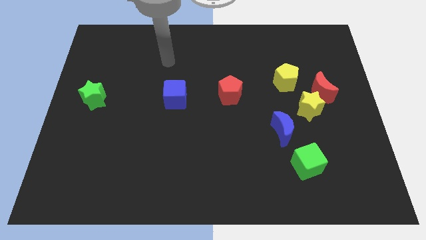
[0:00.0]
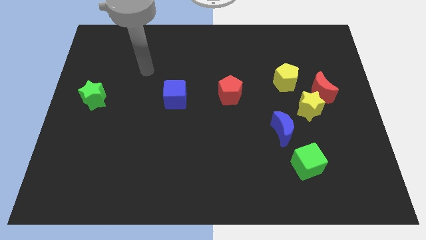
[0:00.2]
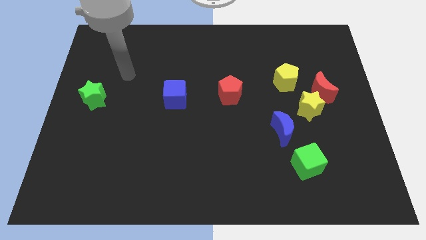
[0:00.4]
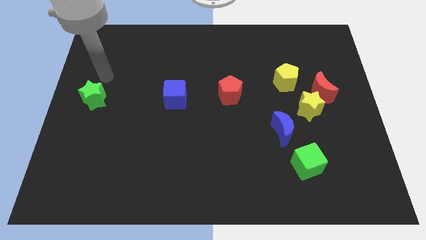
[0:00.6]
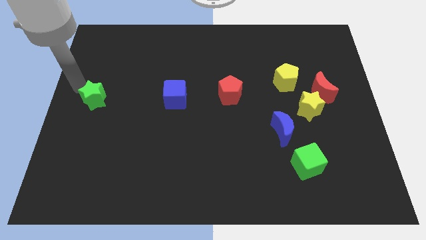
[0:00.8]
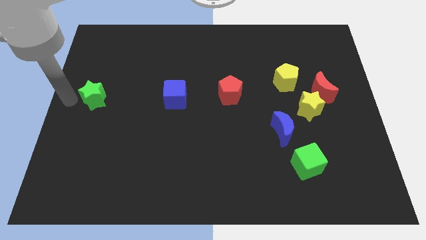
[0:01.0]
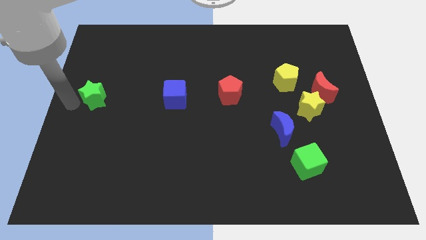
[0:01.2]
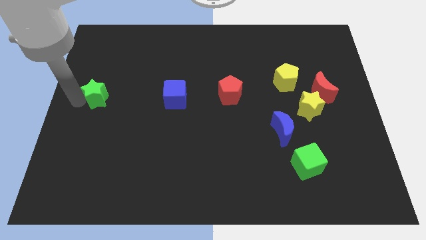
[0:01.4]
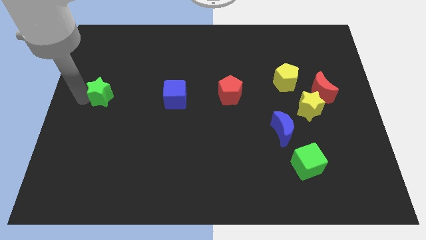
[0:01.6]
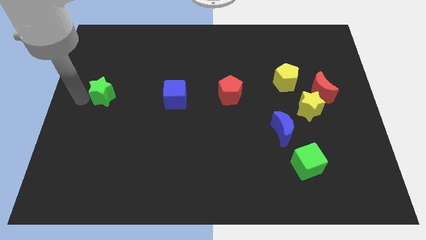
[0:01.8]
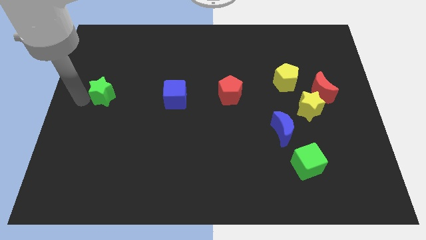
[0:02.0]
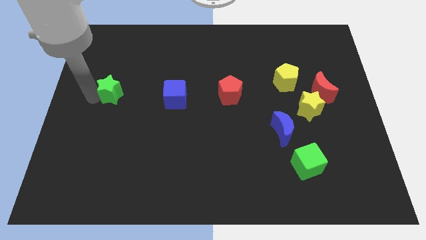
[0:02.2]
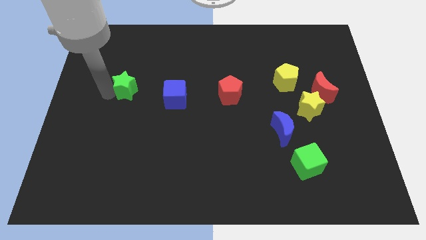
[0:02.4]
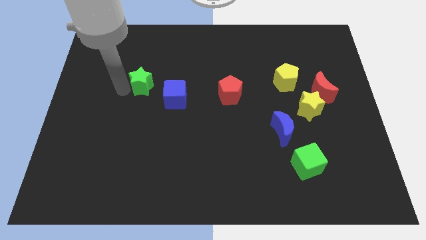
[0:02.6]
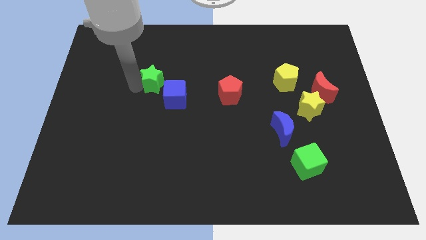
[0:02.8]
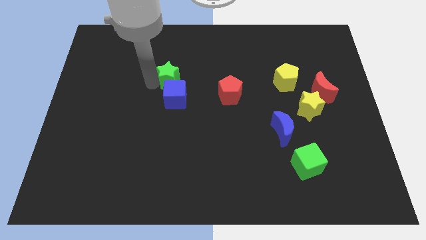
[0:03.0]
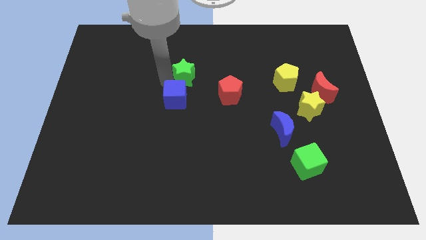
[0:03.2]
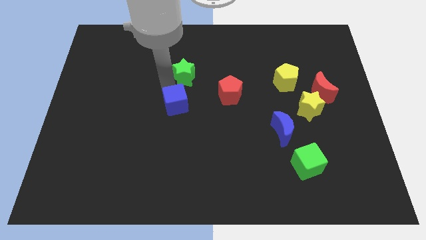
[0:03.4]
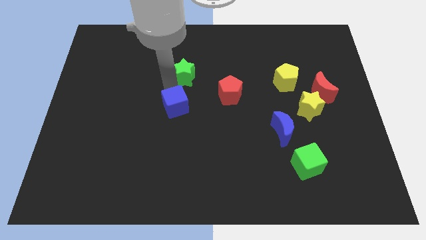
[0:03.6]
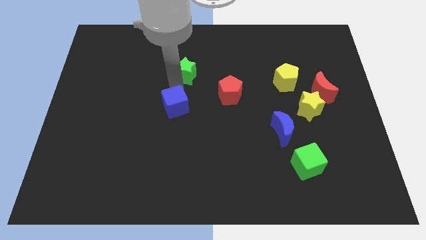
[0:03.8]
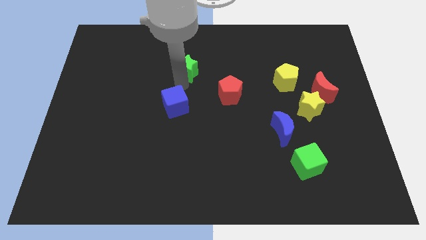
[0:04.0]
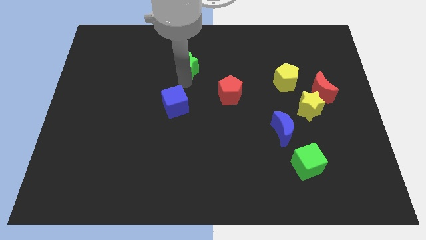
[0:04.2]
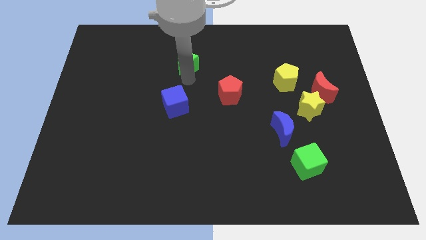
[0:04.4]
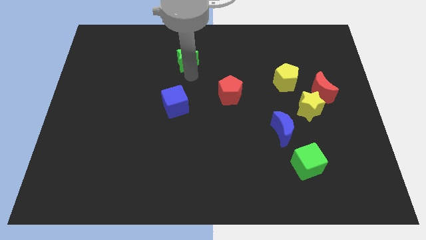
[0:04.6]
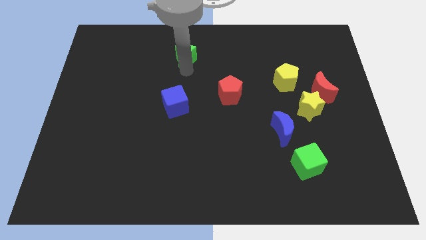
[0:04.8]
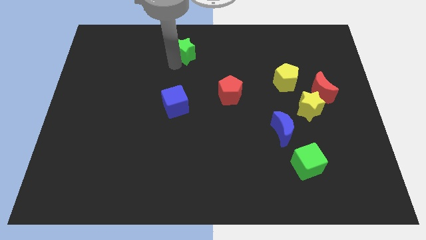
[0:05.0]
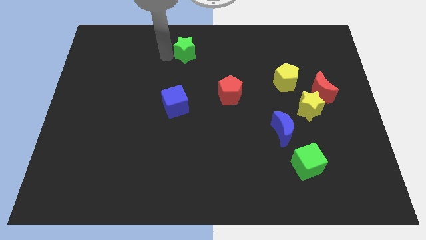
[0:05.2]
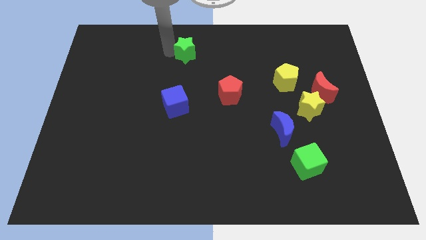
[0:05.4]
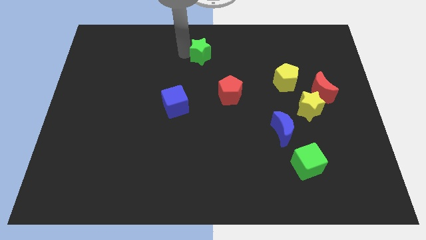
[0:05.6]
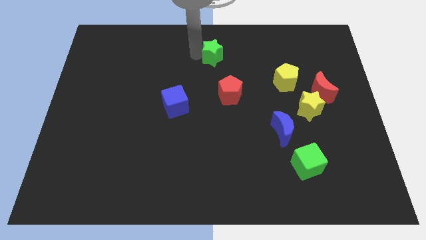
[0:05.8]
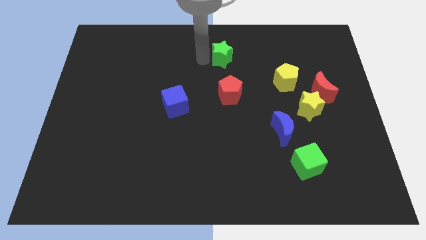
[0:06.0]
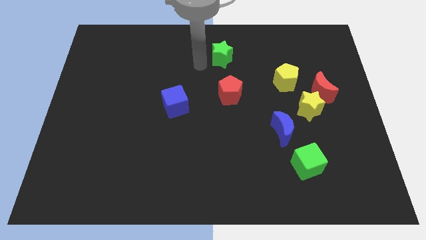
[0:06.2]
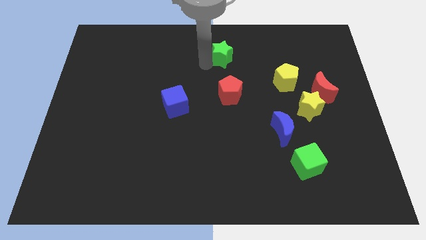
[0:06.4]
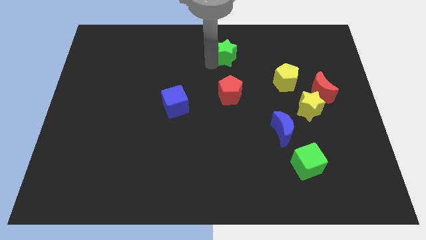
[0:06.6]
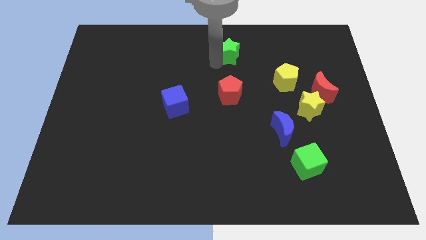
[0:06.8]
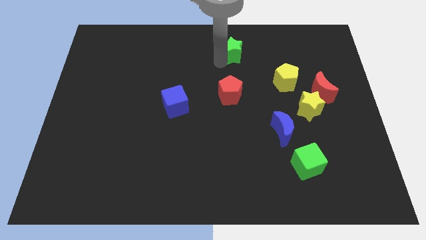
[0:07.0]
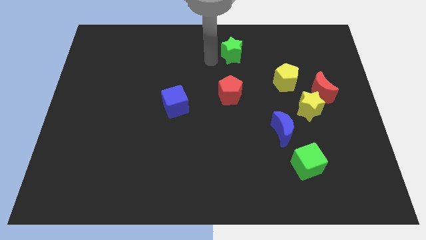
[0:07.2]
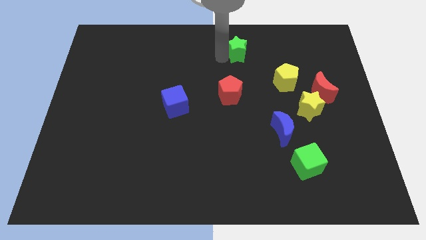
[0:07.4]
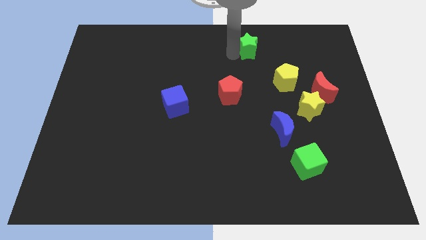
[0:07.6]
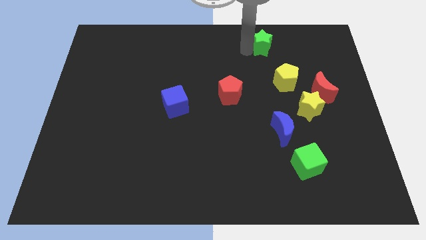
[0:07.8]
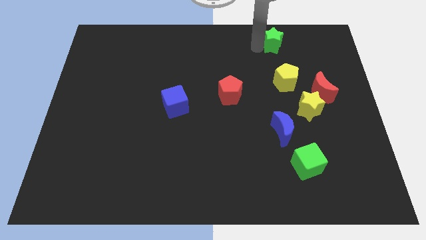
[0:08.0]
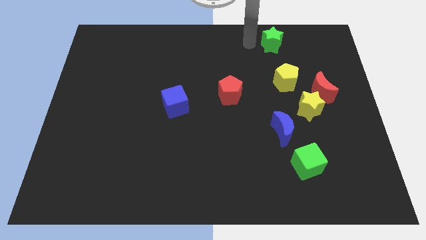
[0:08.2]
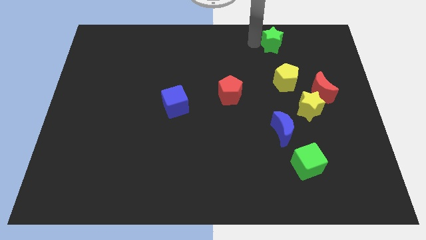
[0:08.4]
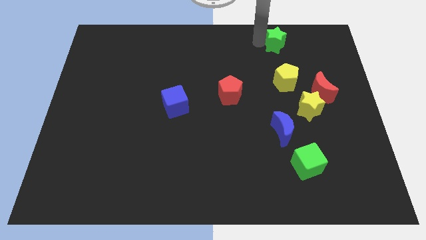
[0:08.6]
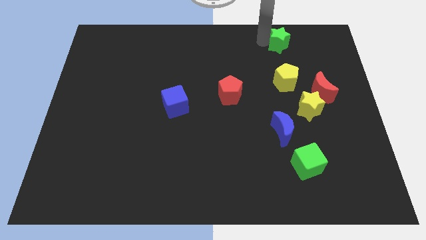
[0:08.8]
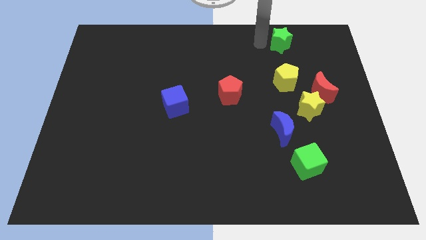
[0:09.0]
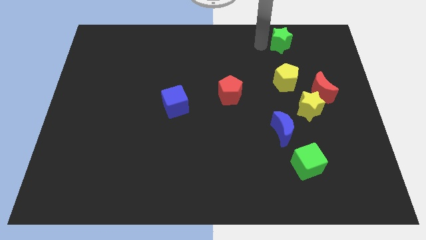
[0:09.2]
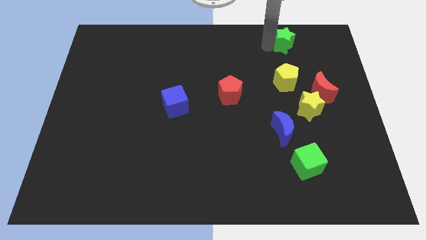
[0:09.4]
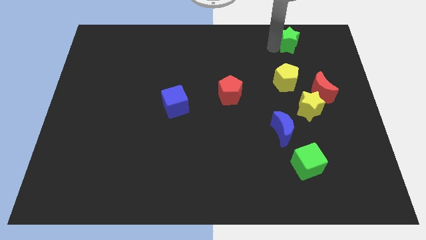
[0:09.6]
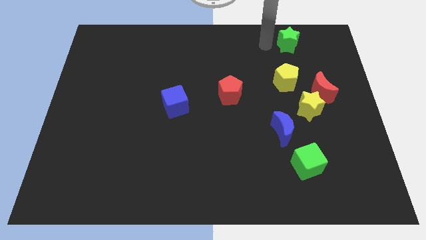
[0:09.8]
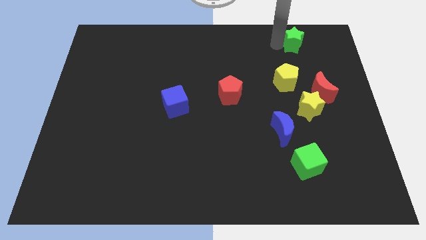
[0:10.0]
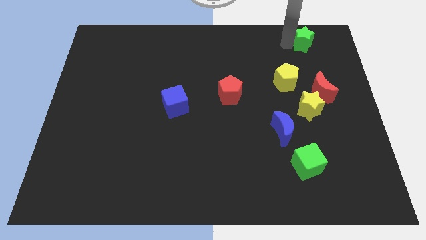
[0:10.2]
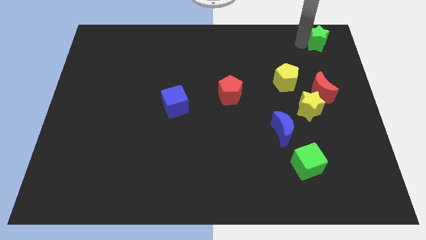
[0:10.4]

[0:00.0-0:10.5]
move the green star to the top right corner

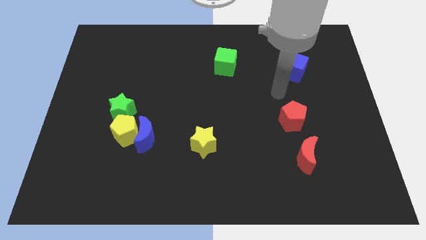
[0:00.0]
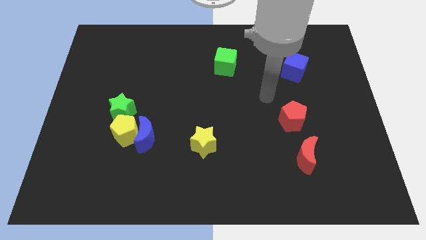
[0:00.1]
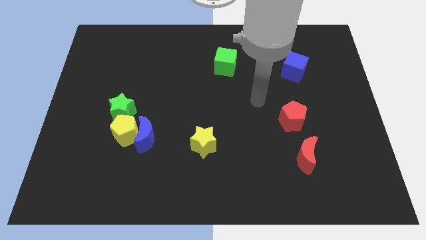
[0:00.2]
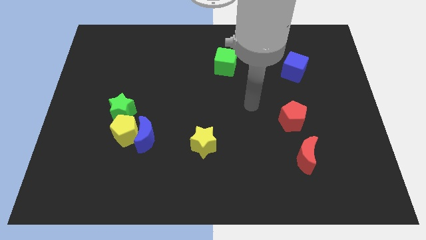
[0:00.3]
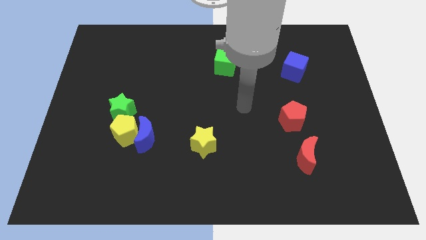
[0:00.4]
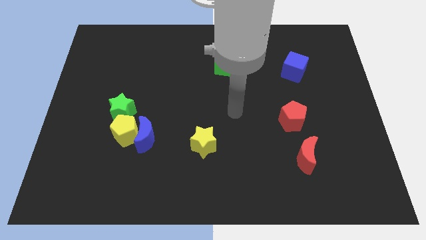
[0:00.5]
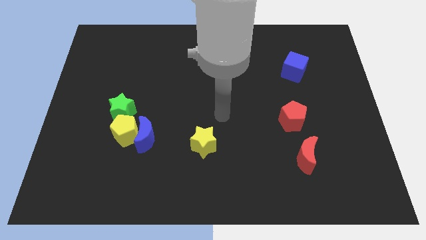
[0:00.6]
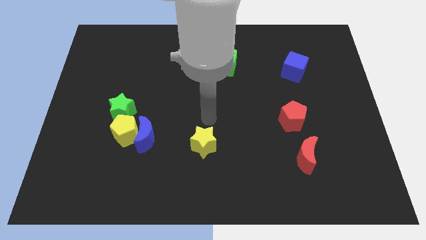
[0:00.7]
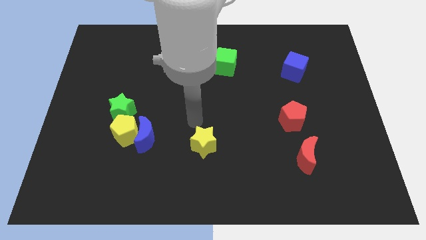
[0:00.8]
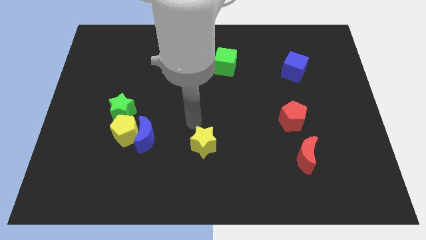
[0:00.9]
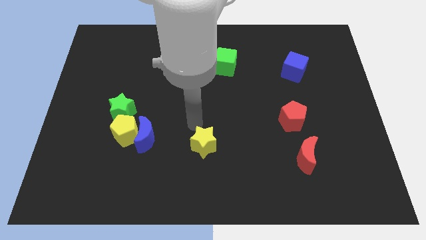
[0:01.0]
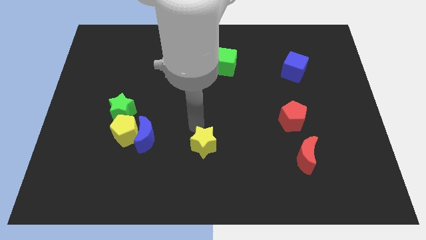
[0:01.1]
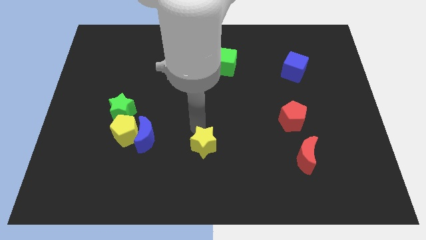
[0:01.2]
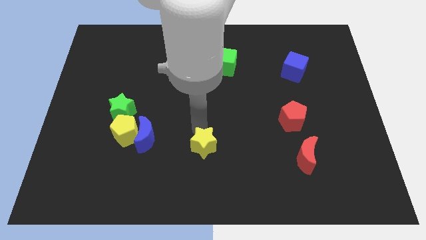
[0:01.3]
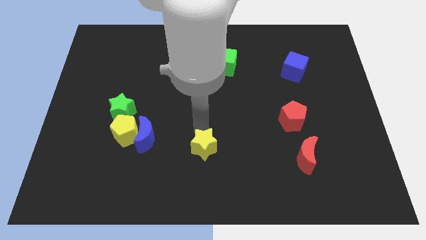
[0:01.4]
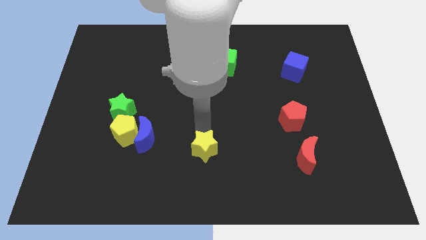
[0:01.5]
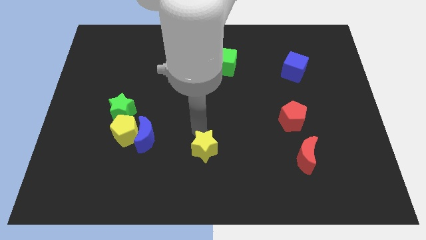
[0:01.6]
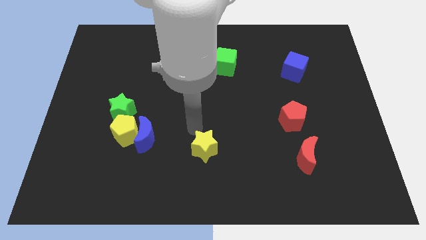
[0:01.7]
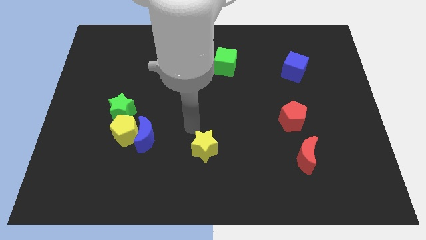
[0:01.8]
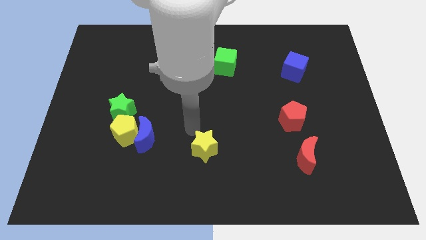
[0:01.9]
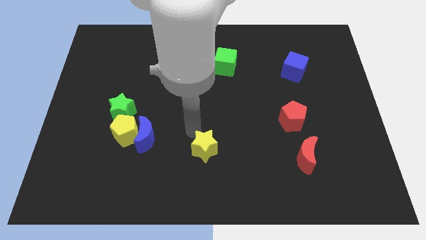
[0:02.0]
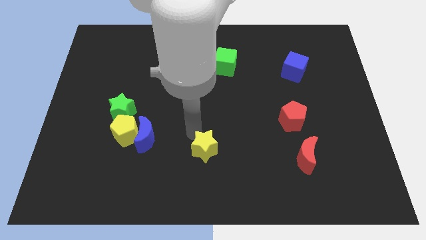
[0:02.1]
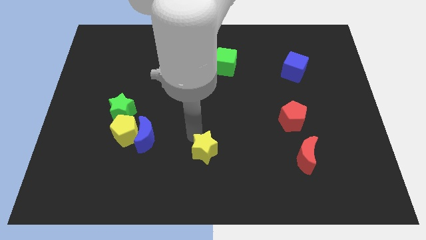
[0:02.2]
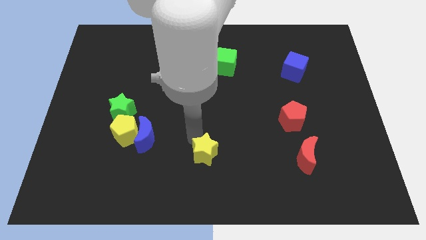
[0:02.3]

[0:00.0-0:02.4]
put the yellow star to the bottom
